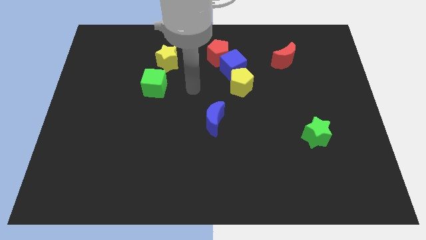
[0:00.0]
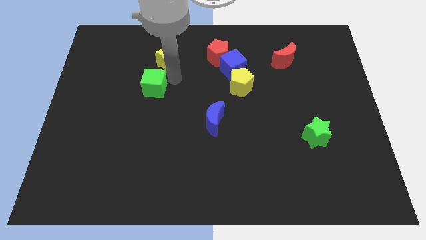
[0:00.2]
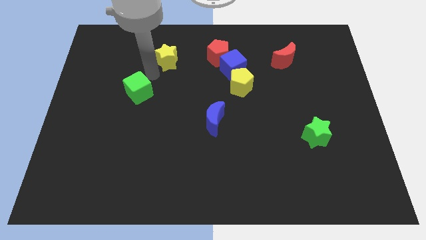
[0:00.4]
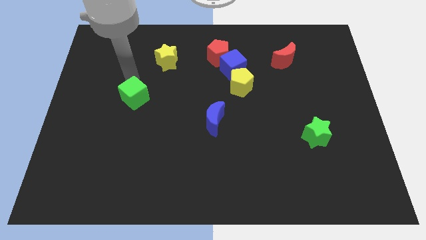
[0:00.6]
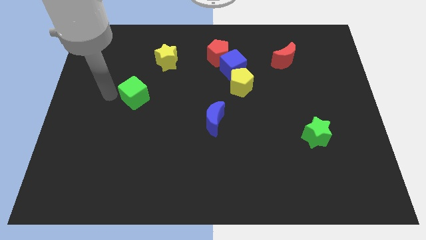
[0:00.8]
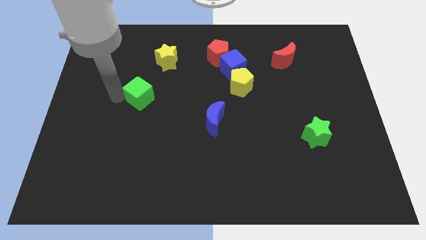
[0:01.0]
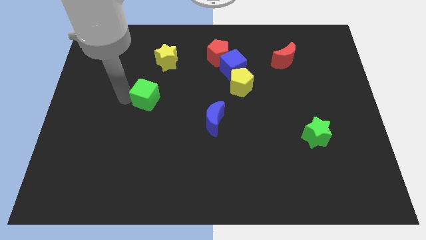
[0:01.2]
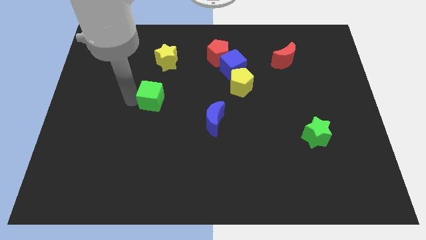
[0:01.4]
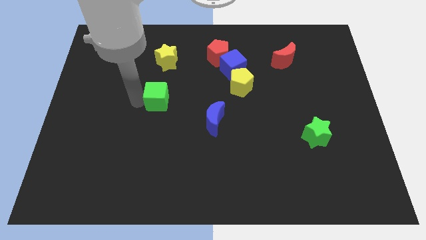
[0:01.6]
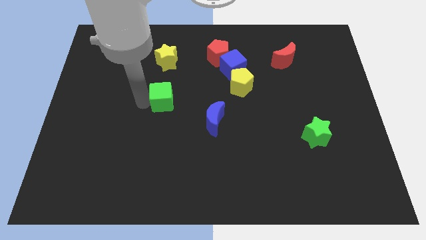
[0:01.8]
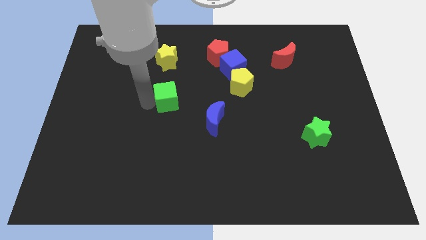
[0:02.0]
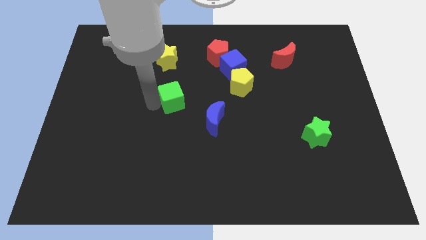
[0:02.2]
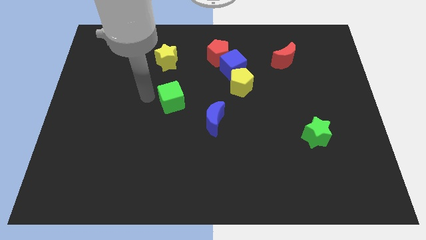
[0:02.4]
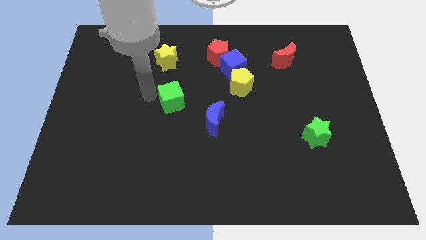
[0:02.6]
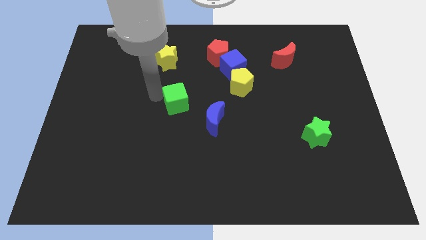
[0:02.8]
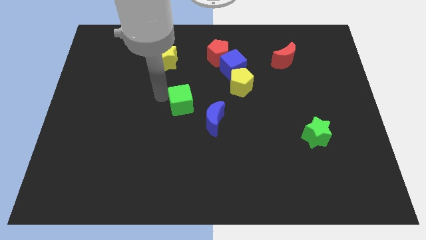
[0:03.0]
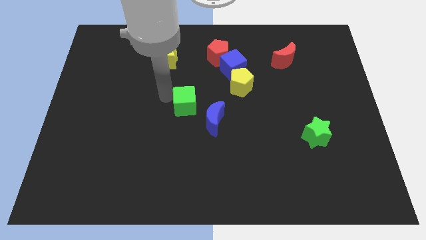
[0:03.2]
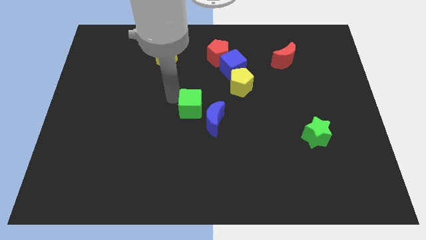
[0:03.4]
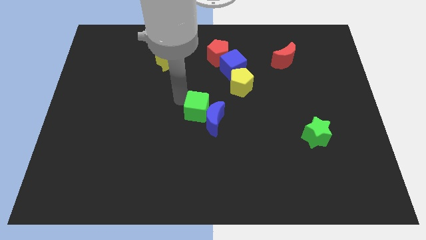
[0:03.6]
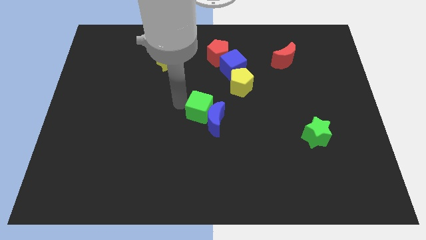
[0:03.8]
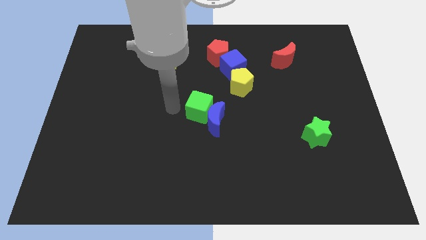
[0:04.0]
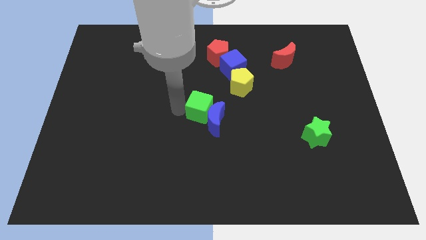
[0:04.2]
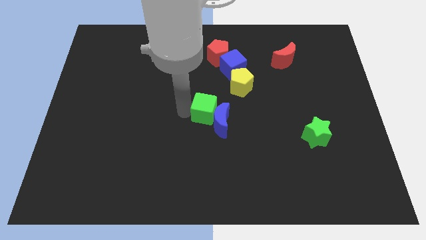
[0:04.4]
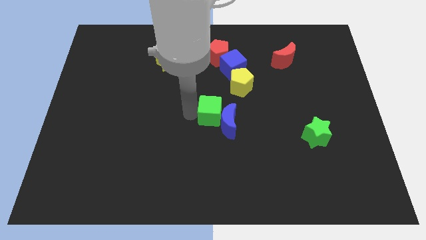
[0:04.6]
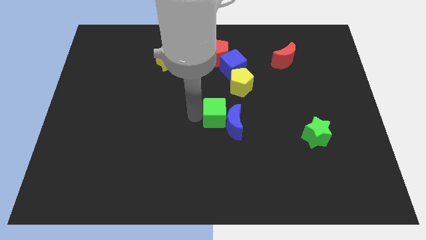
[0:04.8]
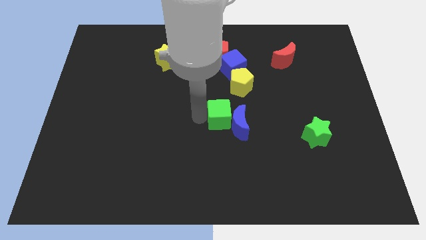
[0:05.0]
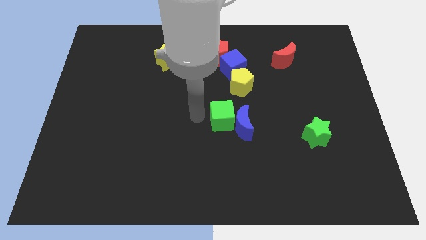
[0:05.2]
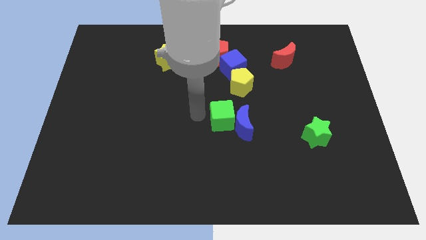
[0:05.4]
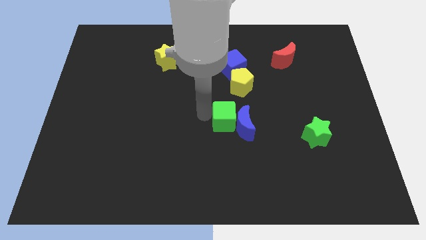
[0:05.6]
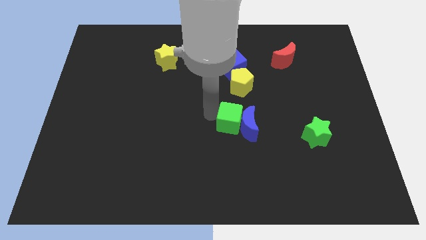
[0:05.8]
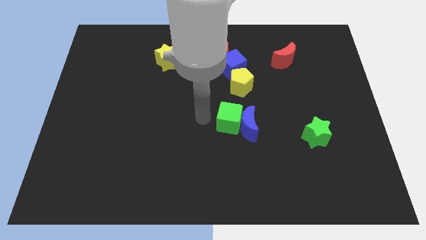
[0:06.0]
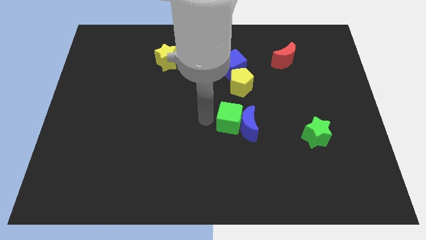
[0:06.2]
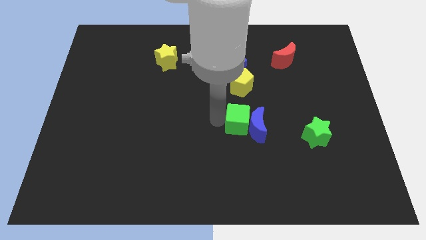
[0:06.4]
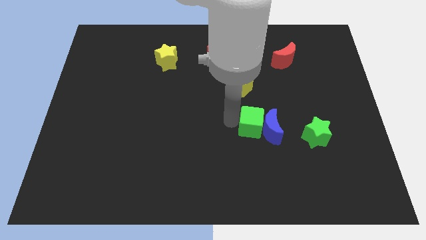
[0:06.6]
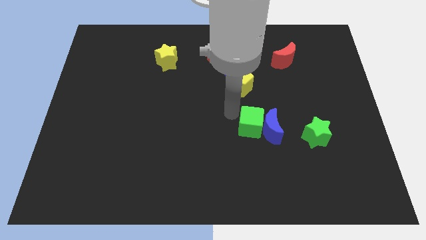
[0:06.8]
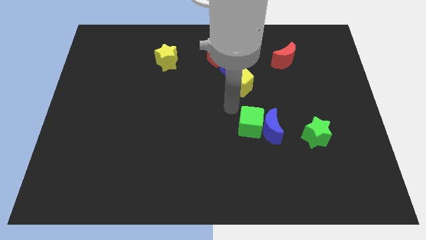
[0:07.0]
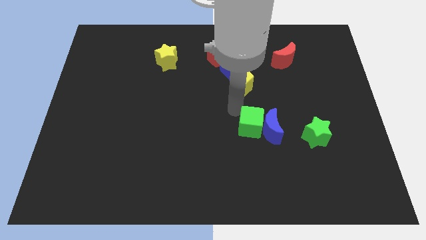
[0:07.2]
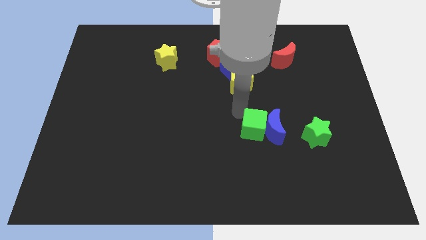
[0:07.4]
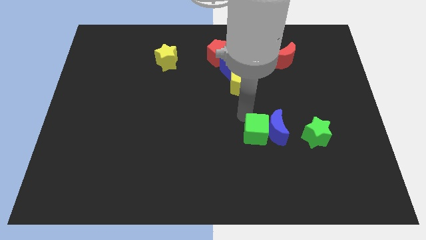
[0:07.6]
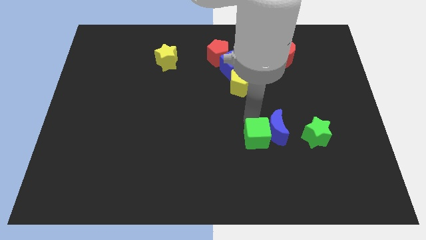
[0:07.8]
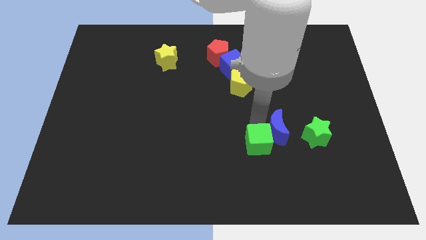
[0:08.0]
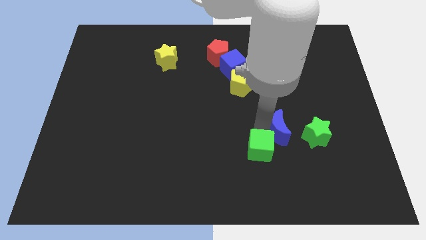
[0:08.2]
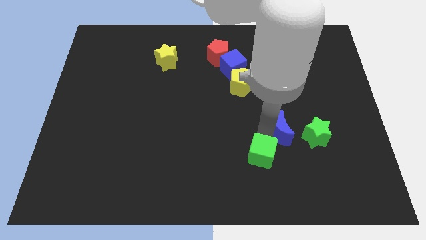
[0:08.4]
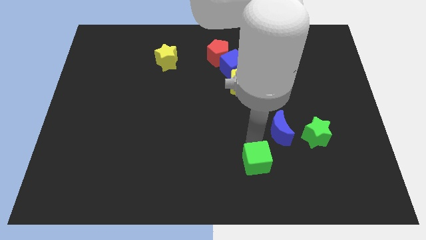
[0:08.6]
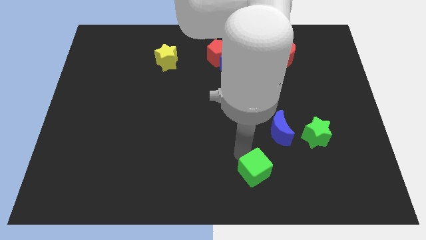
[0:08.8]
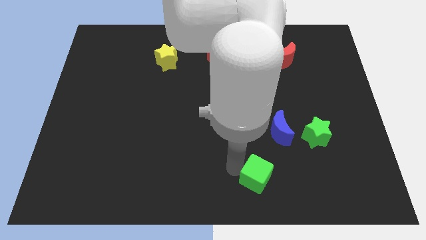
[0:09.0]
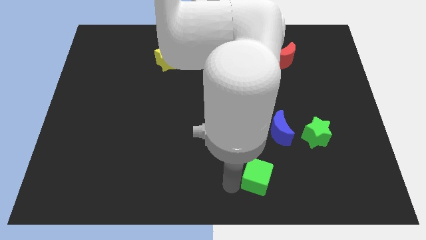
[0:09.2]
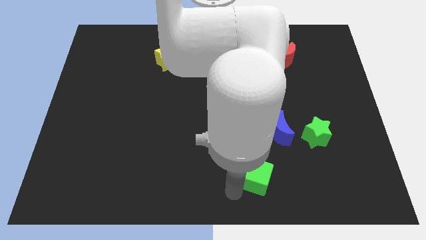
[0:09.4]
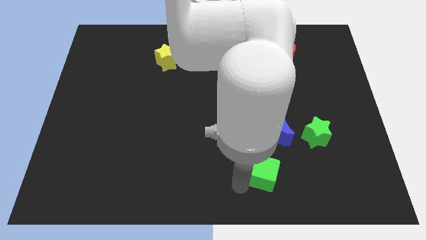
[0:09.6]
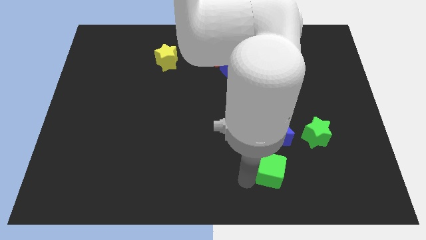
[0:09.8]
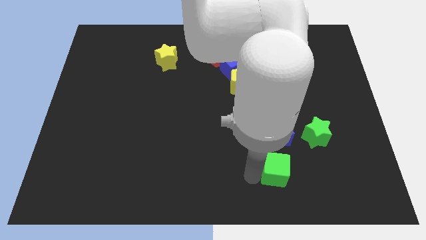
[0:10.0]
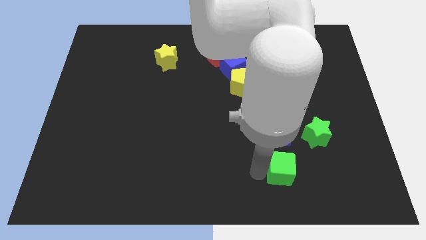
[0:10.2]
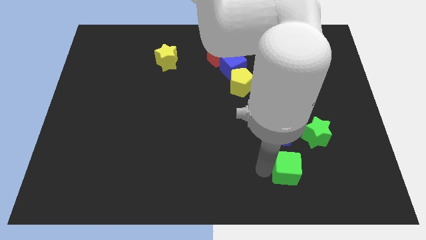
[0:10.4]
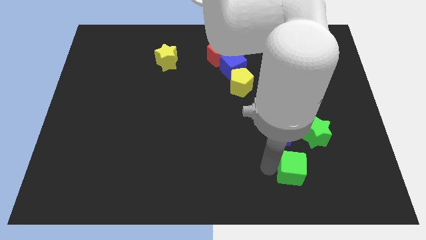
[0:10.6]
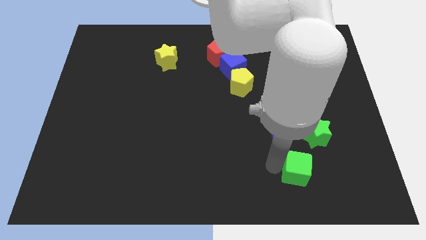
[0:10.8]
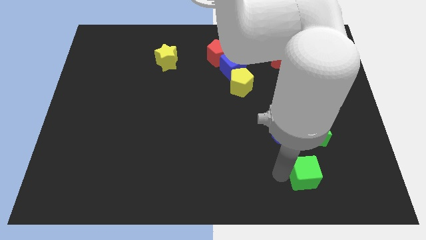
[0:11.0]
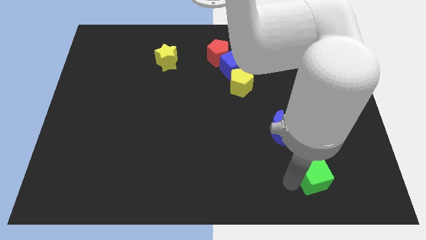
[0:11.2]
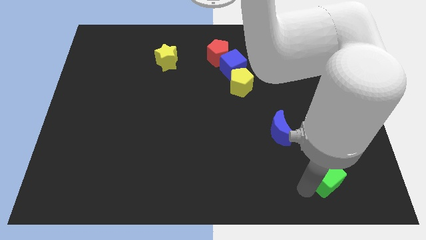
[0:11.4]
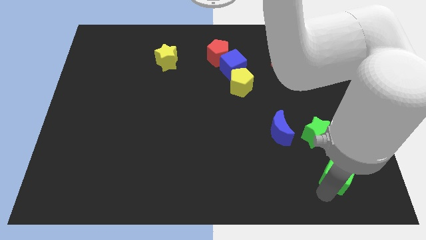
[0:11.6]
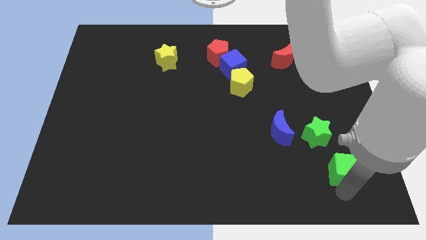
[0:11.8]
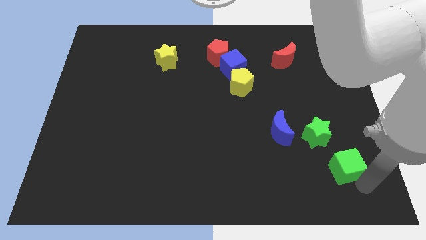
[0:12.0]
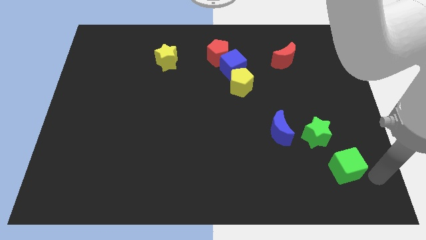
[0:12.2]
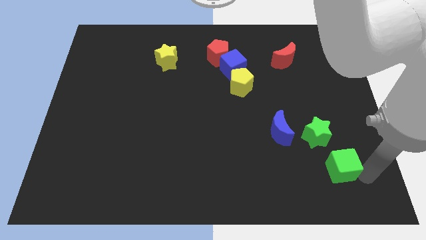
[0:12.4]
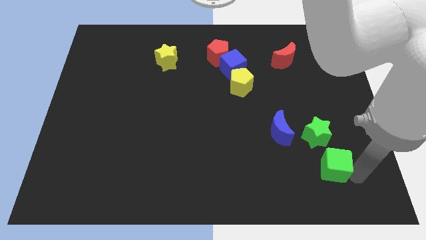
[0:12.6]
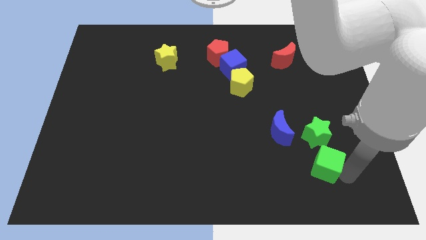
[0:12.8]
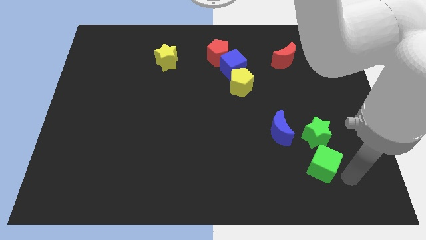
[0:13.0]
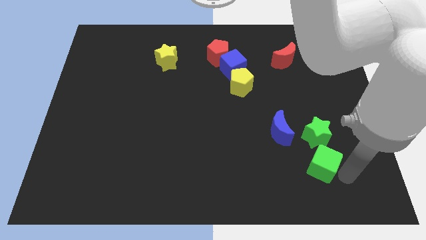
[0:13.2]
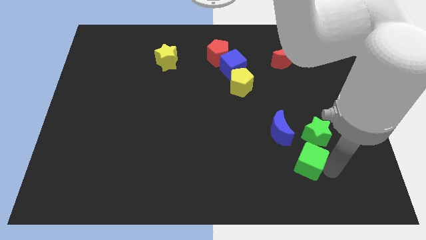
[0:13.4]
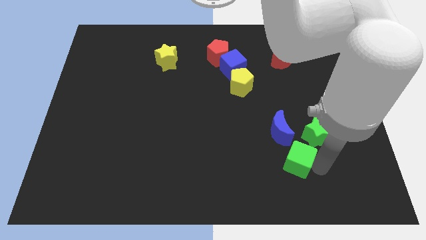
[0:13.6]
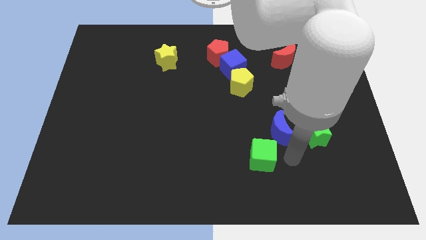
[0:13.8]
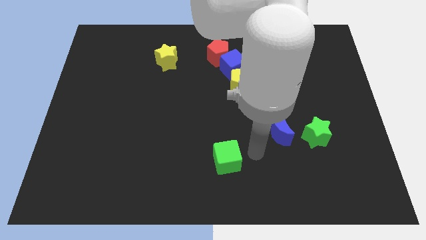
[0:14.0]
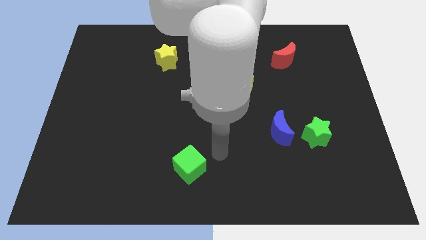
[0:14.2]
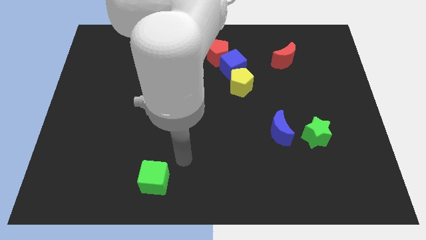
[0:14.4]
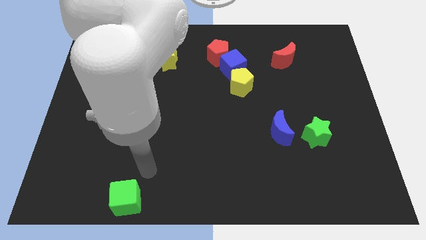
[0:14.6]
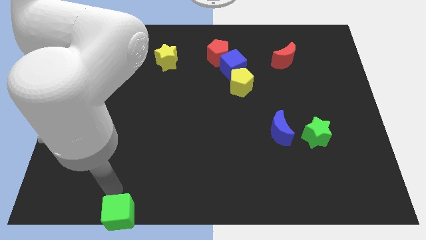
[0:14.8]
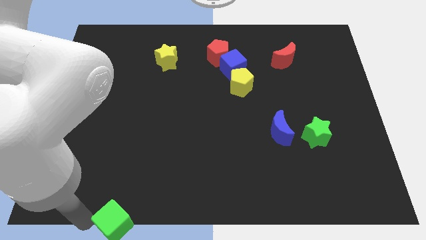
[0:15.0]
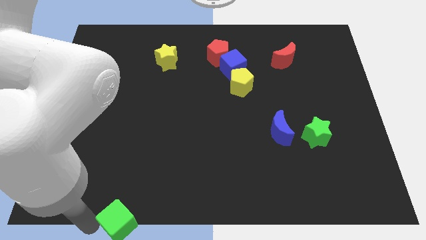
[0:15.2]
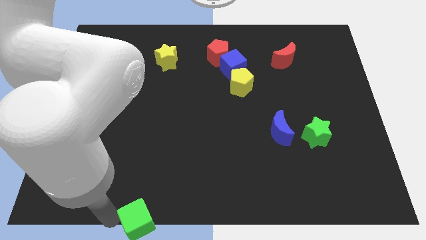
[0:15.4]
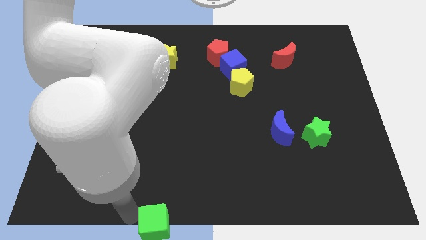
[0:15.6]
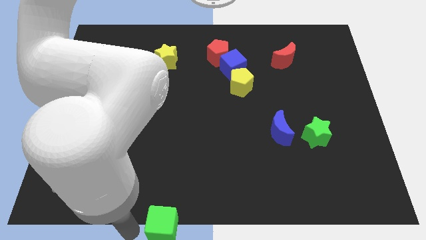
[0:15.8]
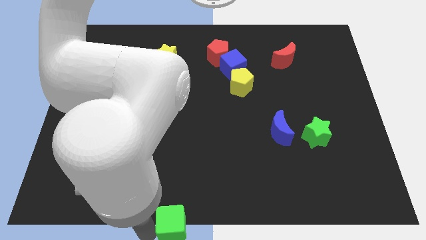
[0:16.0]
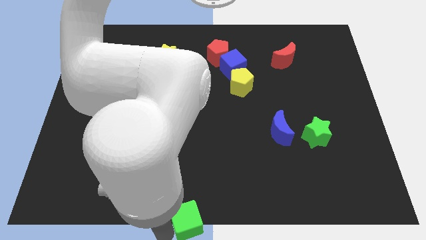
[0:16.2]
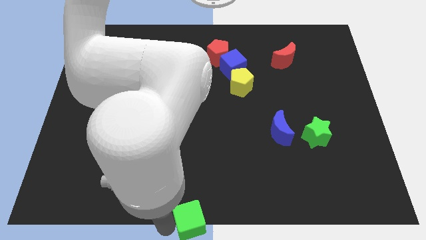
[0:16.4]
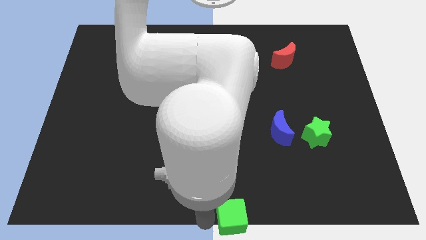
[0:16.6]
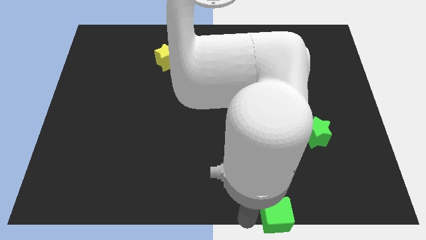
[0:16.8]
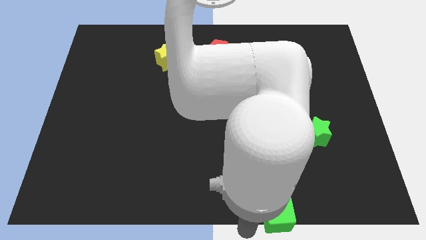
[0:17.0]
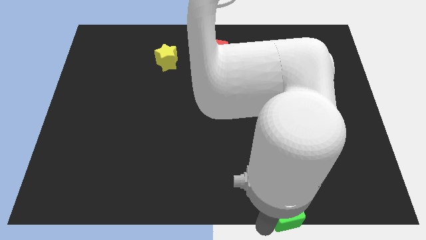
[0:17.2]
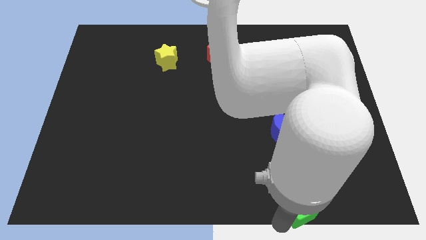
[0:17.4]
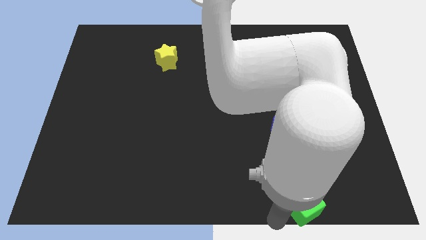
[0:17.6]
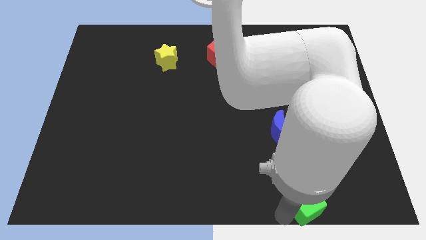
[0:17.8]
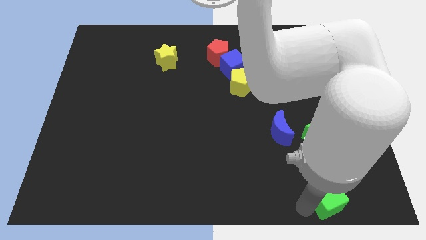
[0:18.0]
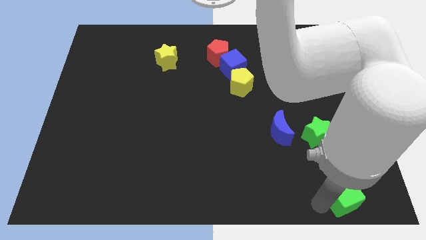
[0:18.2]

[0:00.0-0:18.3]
slide the green cube to the bottom right
